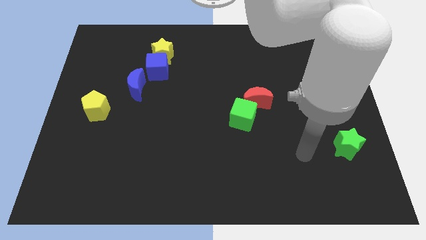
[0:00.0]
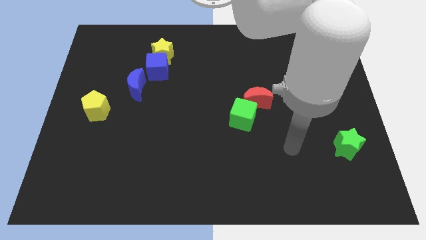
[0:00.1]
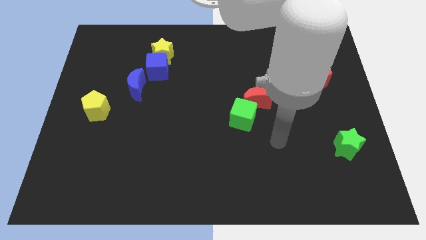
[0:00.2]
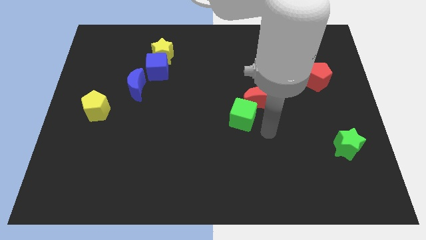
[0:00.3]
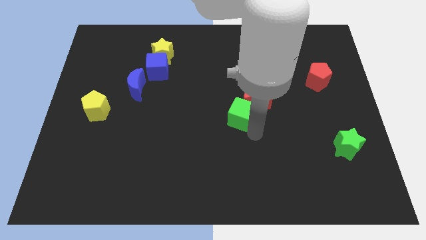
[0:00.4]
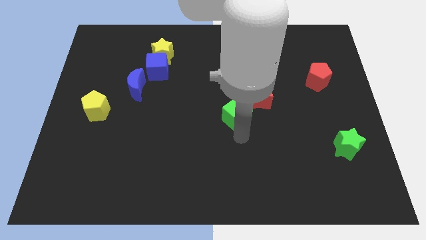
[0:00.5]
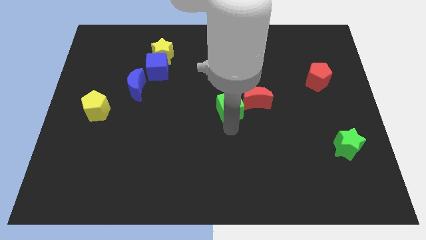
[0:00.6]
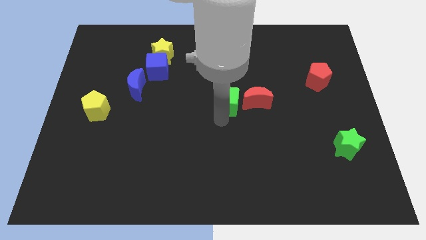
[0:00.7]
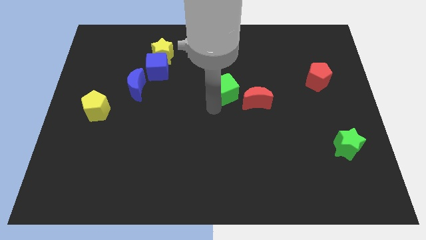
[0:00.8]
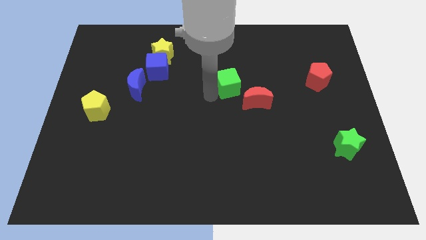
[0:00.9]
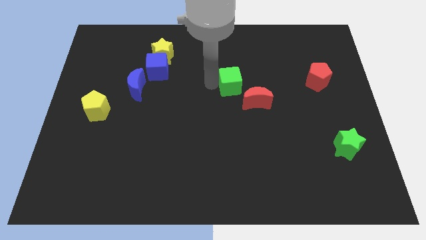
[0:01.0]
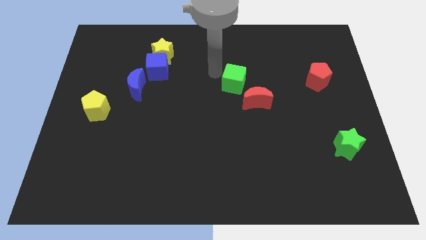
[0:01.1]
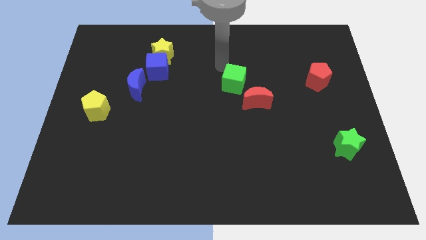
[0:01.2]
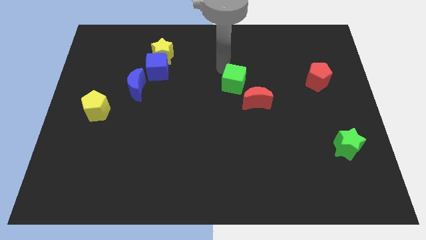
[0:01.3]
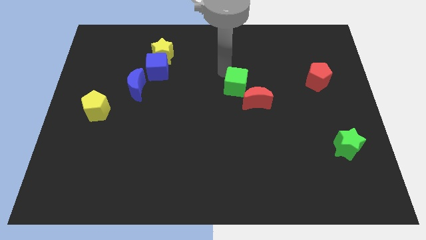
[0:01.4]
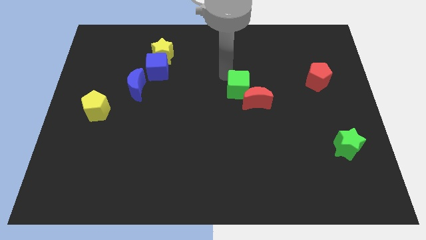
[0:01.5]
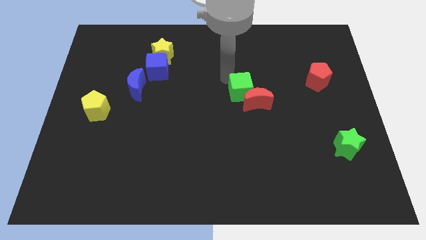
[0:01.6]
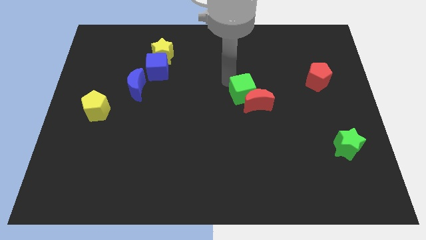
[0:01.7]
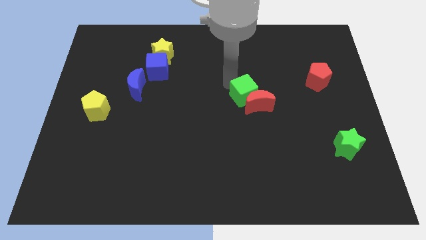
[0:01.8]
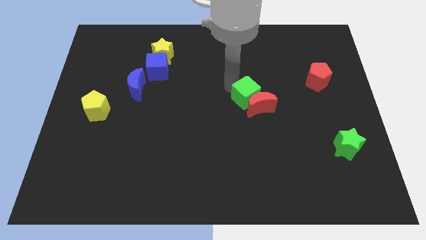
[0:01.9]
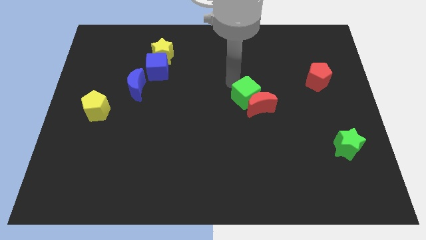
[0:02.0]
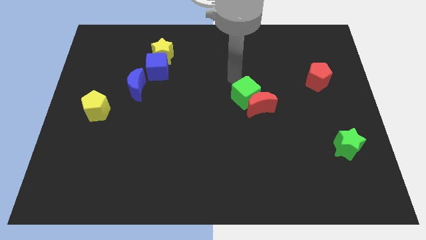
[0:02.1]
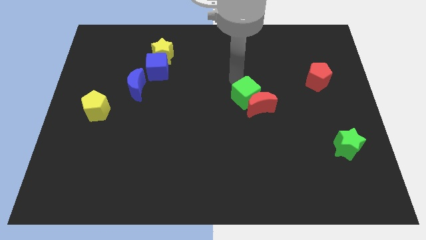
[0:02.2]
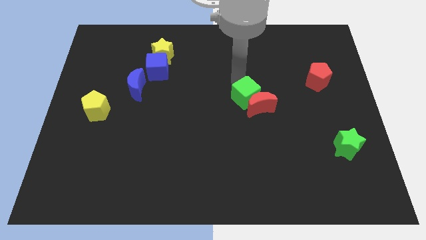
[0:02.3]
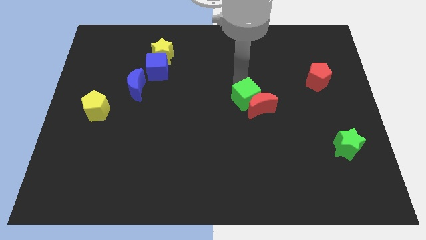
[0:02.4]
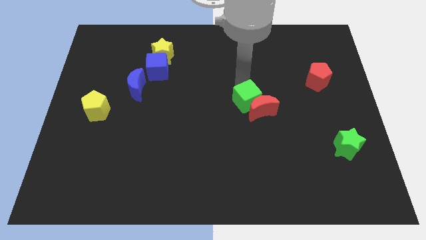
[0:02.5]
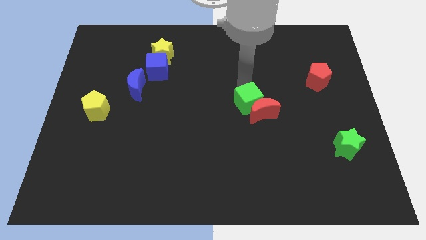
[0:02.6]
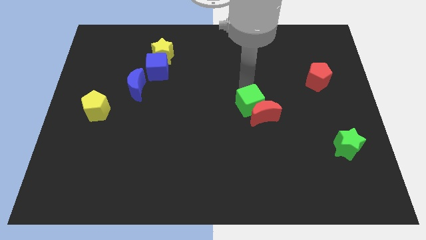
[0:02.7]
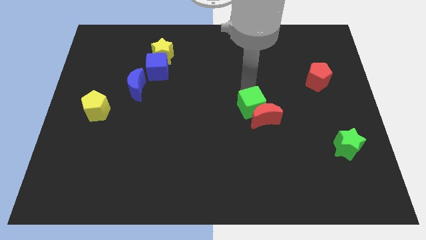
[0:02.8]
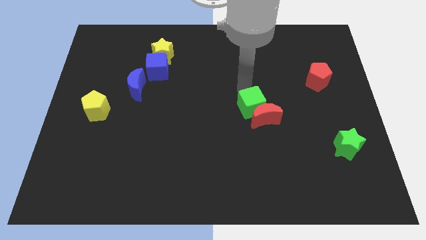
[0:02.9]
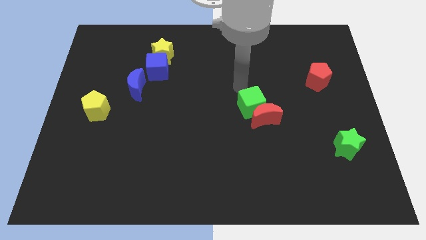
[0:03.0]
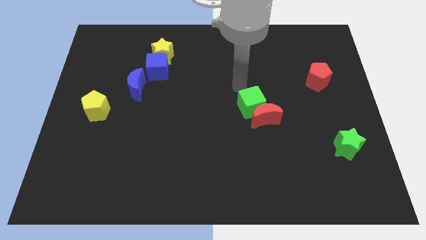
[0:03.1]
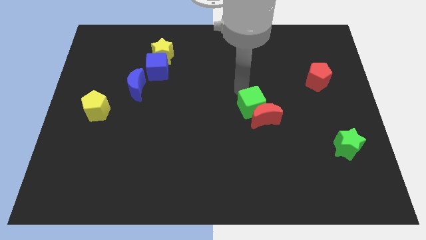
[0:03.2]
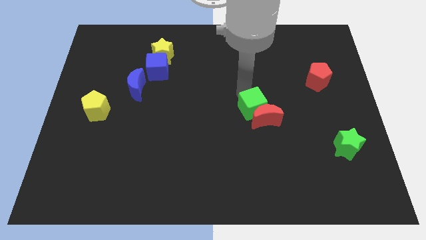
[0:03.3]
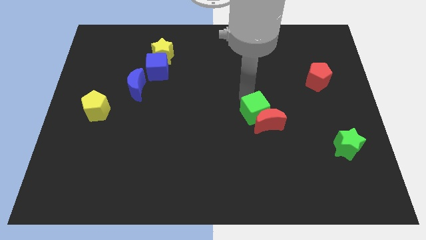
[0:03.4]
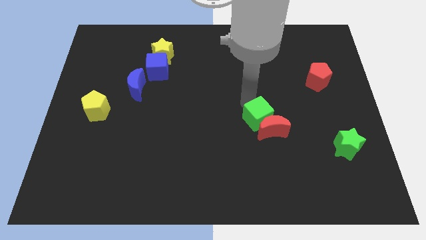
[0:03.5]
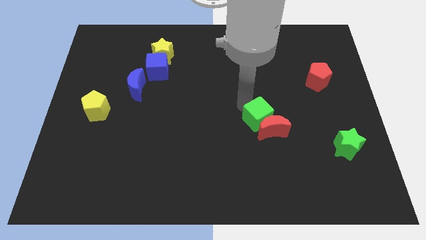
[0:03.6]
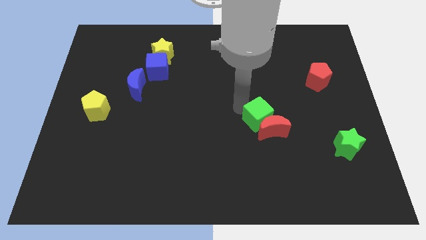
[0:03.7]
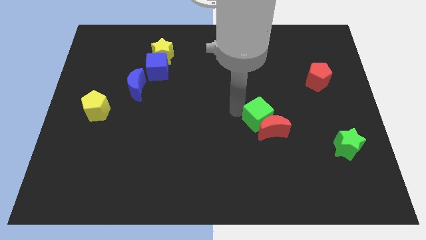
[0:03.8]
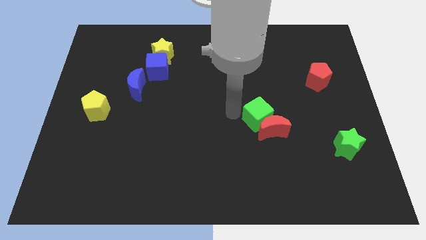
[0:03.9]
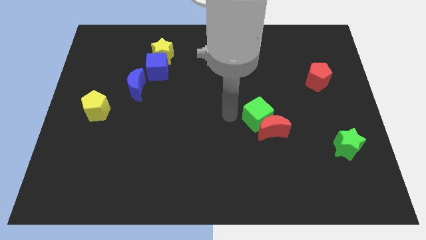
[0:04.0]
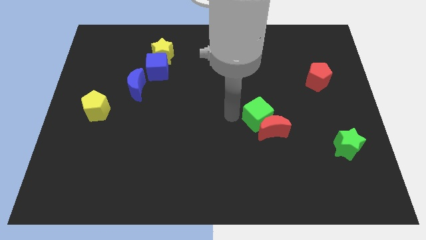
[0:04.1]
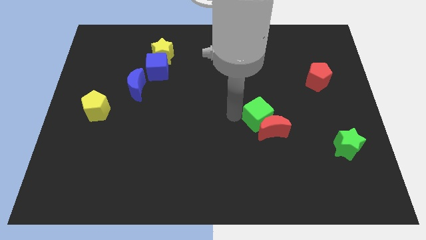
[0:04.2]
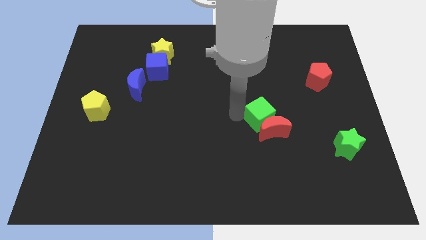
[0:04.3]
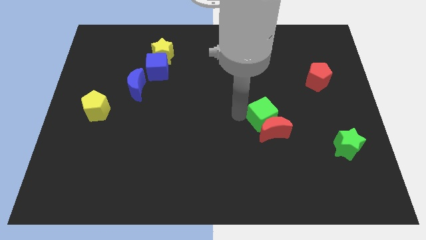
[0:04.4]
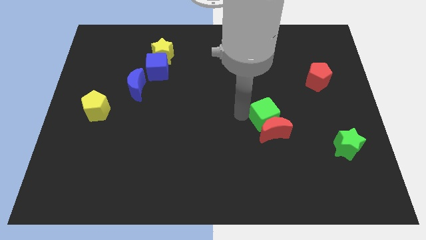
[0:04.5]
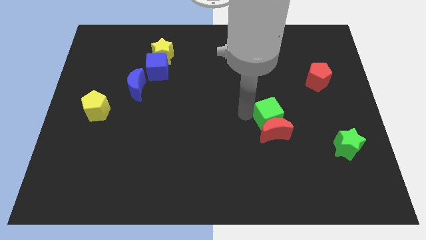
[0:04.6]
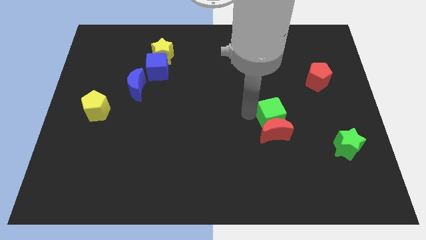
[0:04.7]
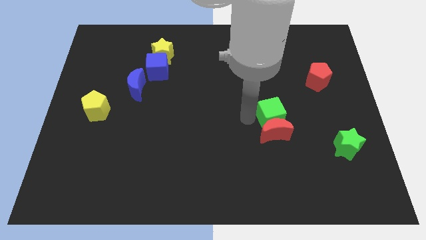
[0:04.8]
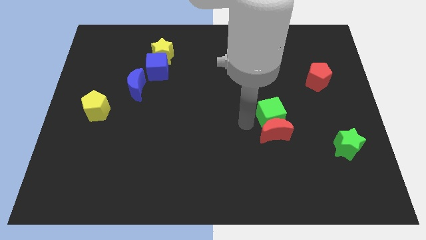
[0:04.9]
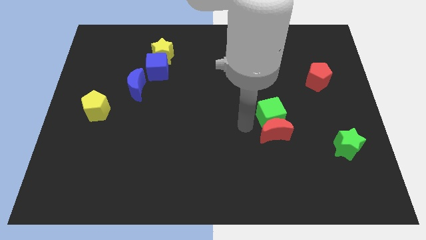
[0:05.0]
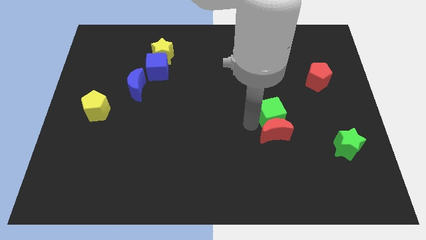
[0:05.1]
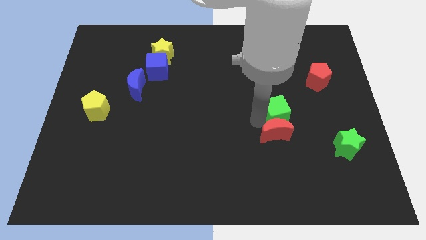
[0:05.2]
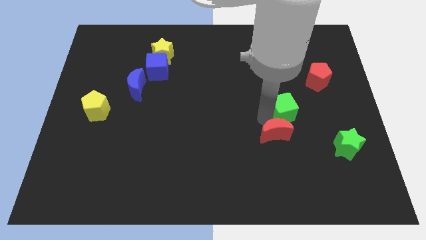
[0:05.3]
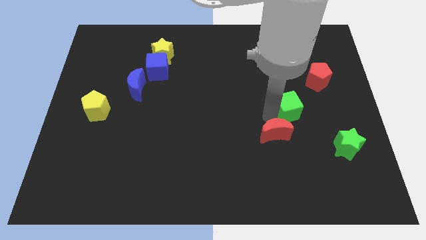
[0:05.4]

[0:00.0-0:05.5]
slide the green cube diagonally down and to the left of the red pentagon
